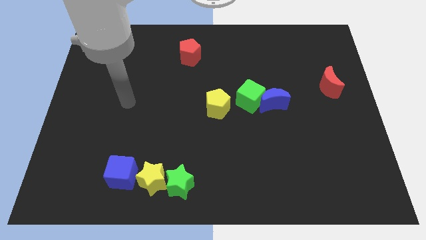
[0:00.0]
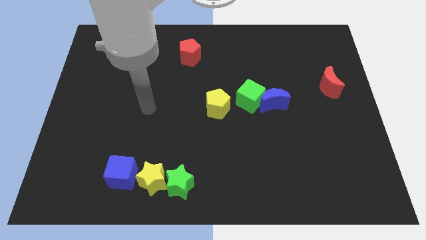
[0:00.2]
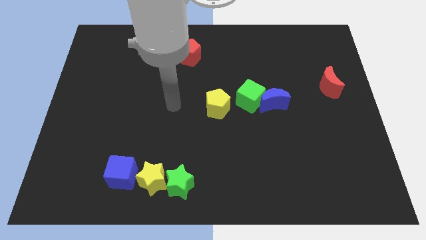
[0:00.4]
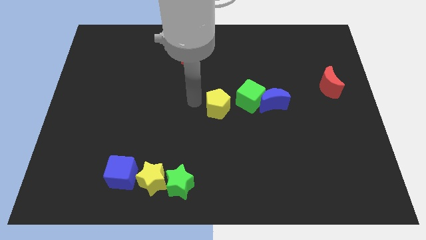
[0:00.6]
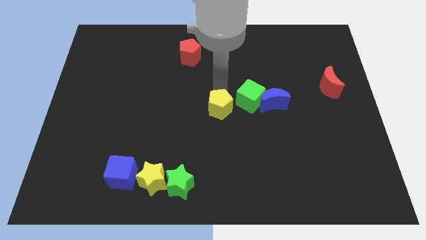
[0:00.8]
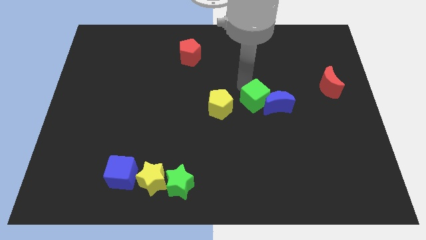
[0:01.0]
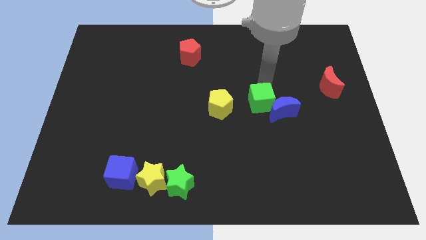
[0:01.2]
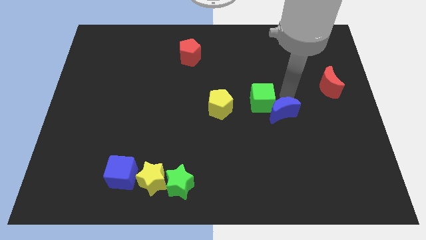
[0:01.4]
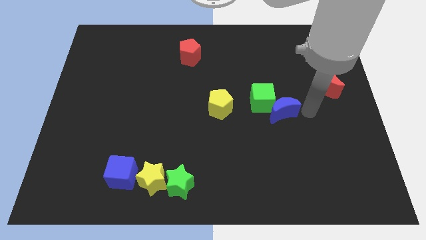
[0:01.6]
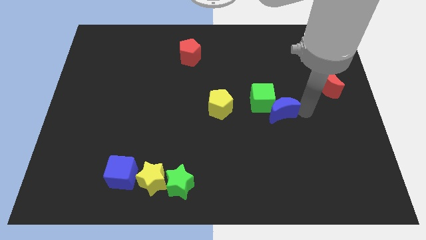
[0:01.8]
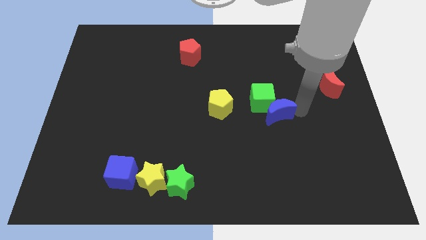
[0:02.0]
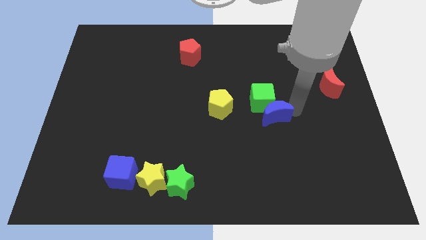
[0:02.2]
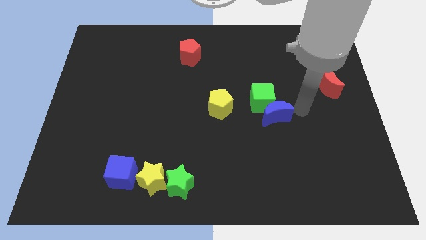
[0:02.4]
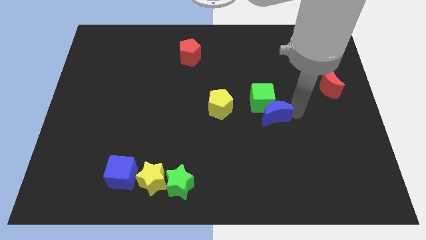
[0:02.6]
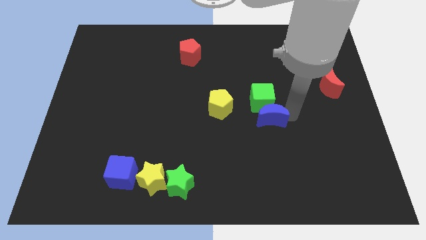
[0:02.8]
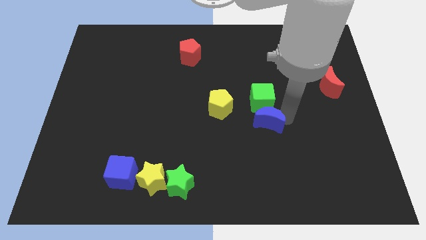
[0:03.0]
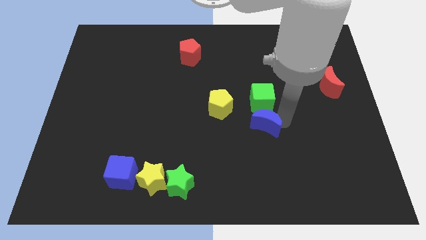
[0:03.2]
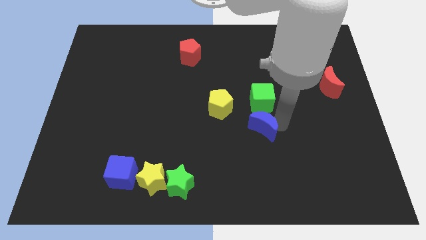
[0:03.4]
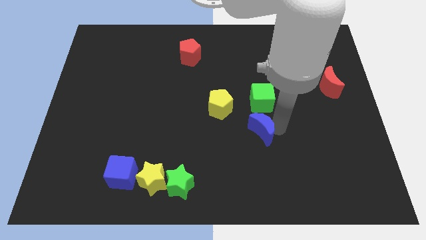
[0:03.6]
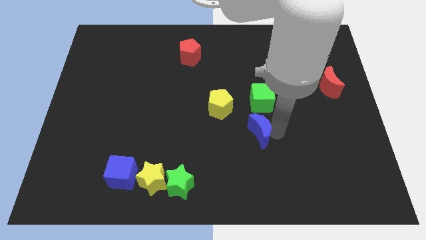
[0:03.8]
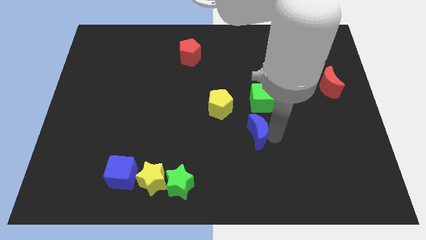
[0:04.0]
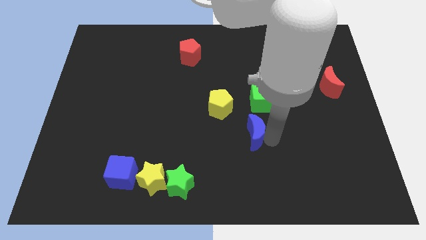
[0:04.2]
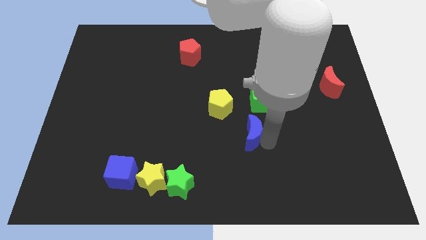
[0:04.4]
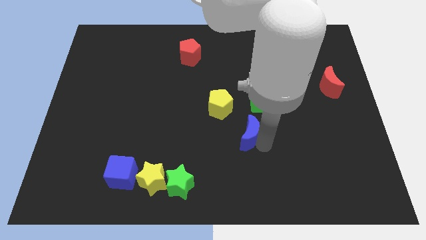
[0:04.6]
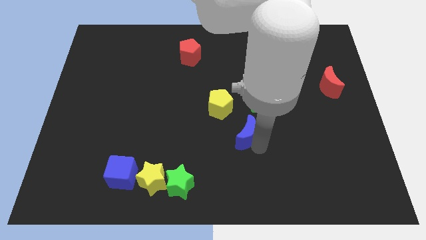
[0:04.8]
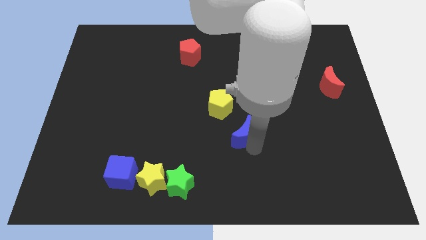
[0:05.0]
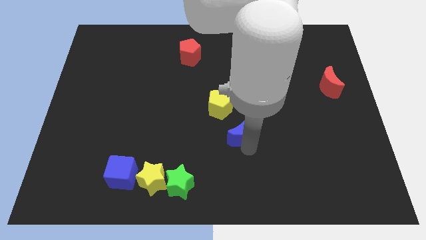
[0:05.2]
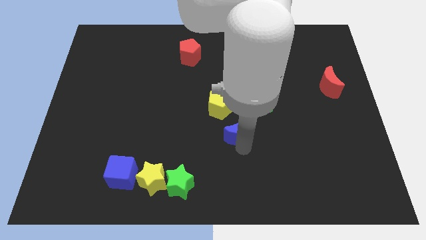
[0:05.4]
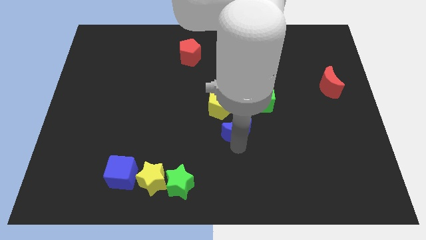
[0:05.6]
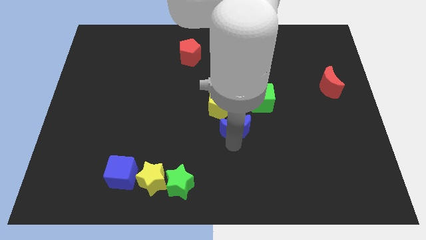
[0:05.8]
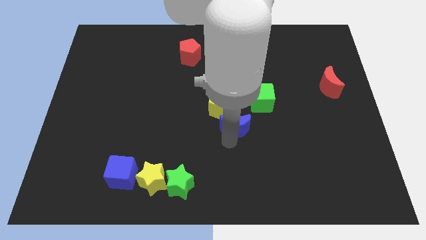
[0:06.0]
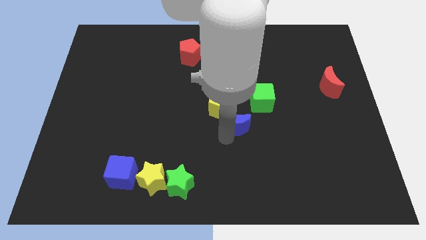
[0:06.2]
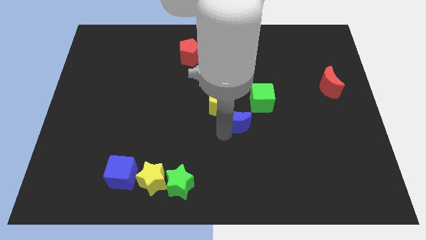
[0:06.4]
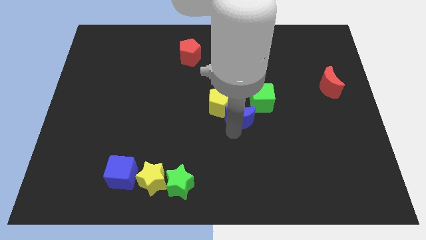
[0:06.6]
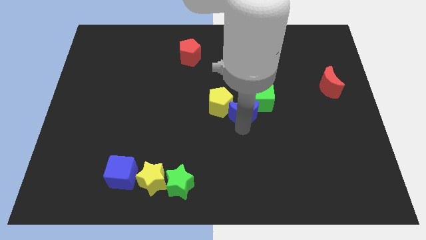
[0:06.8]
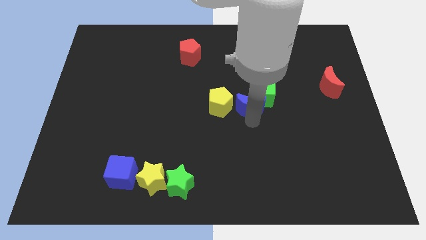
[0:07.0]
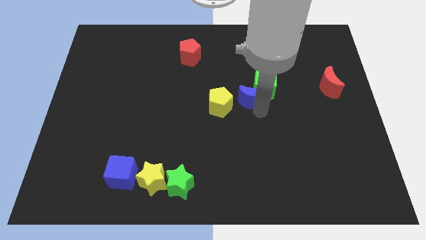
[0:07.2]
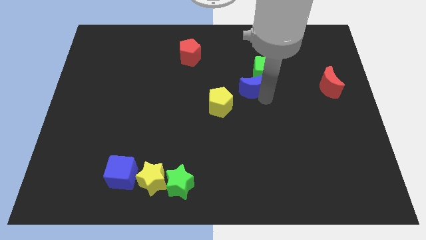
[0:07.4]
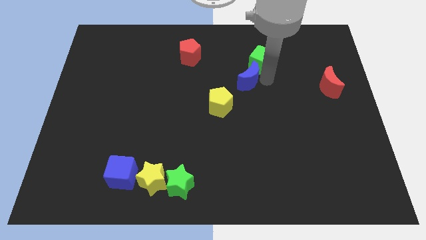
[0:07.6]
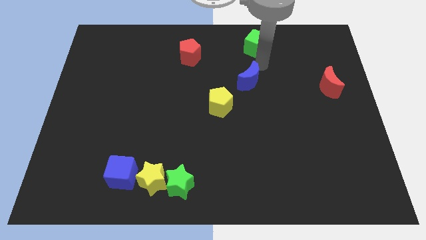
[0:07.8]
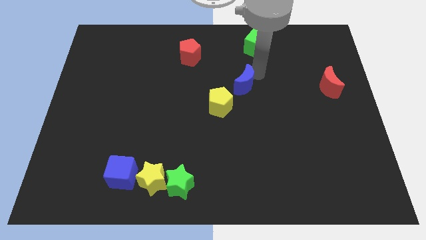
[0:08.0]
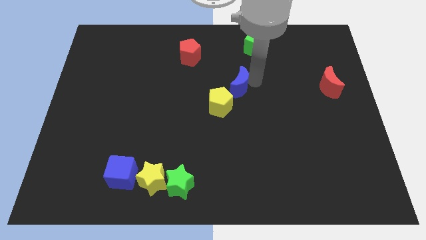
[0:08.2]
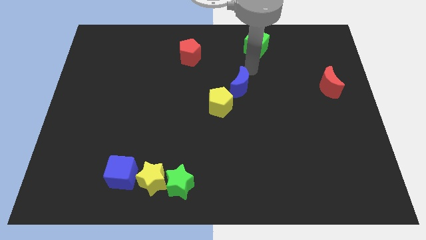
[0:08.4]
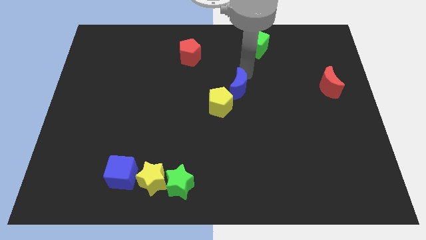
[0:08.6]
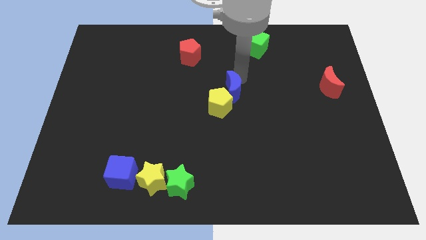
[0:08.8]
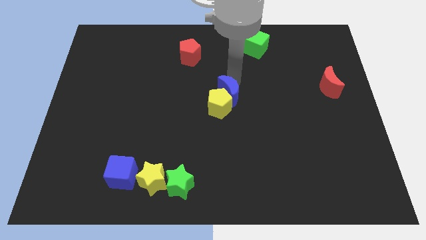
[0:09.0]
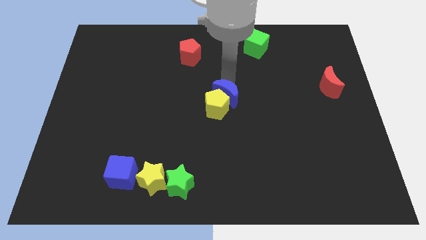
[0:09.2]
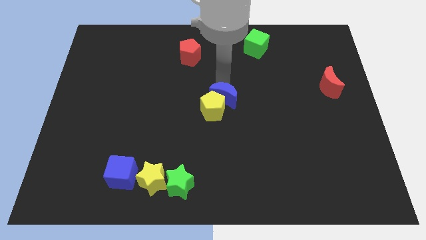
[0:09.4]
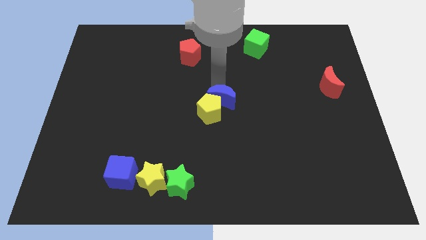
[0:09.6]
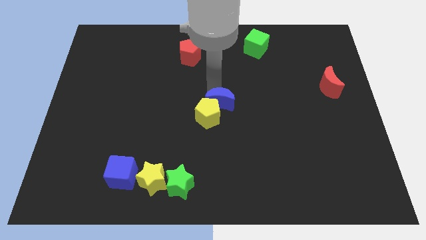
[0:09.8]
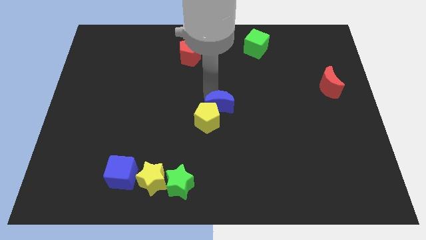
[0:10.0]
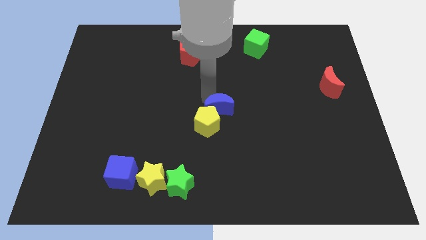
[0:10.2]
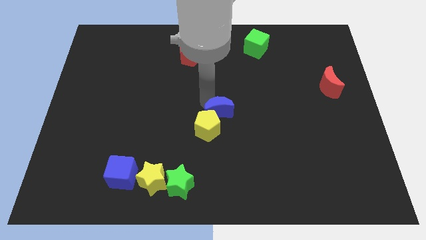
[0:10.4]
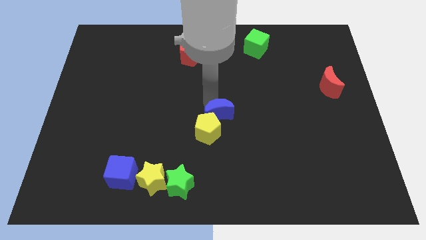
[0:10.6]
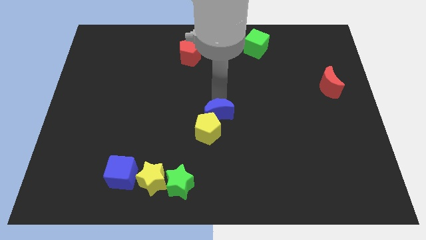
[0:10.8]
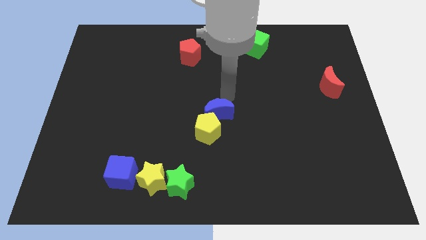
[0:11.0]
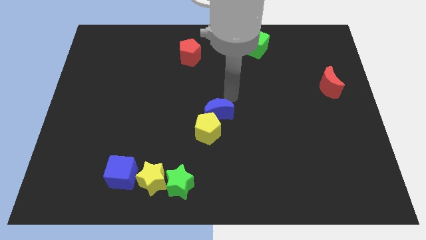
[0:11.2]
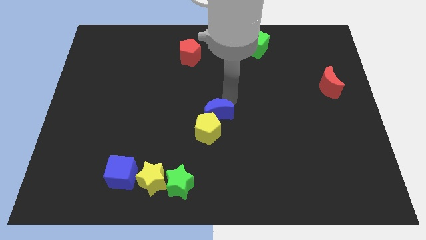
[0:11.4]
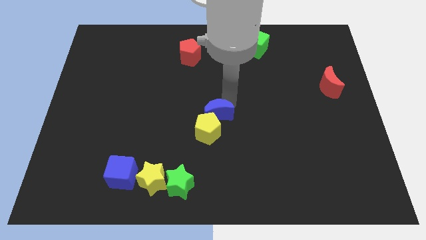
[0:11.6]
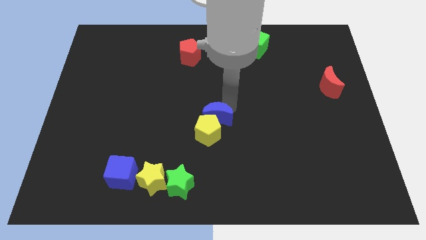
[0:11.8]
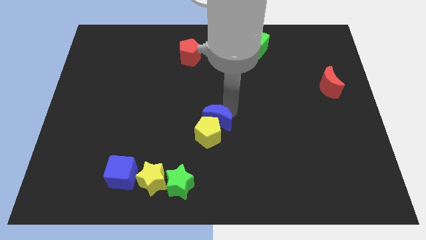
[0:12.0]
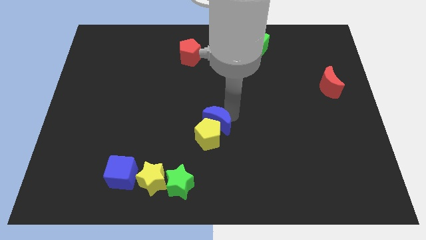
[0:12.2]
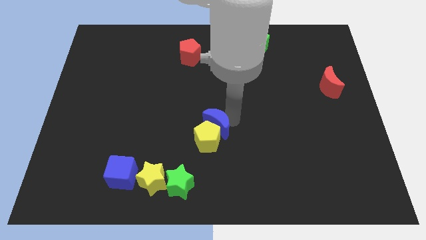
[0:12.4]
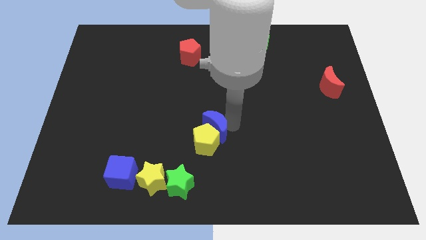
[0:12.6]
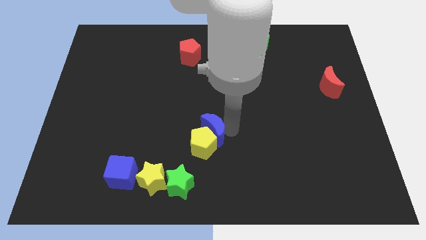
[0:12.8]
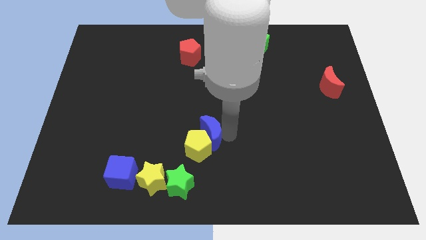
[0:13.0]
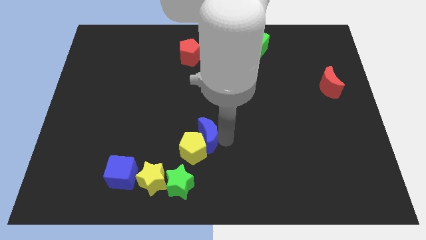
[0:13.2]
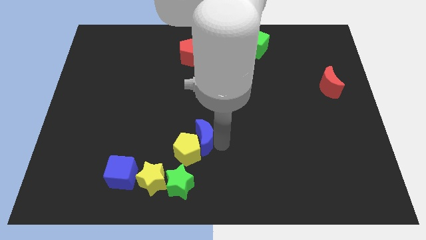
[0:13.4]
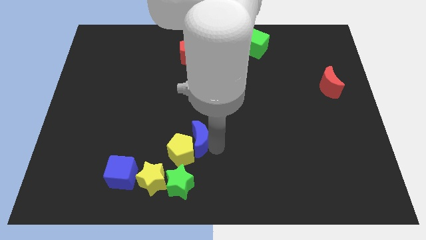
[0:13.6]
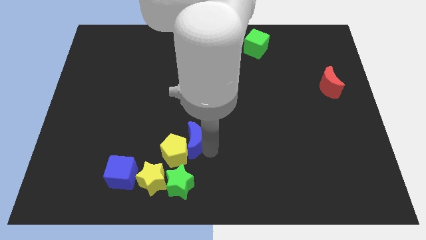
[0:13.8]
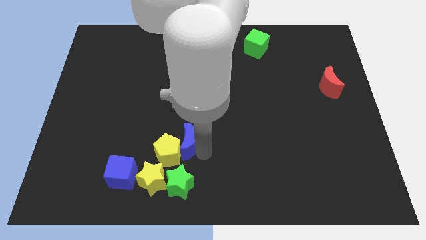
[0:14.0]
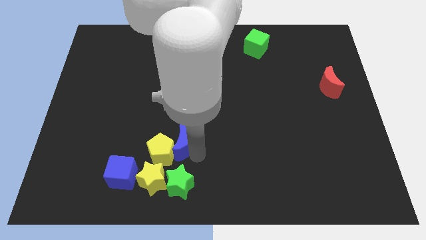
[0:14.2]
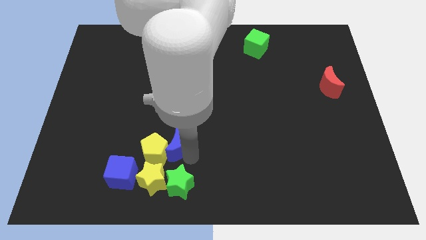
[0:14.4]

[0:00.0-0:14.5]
slide the blue moon to the top side of the yellow star
